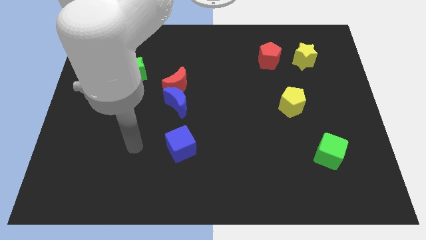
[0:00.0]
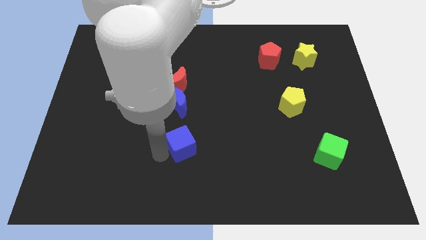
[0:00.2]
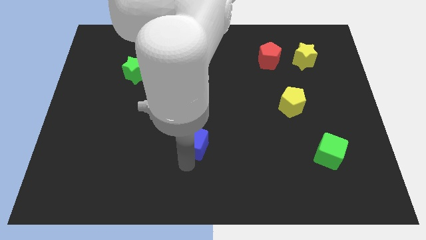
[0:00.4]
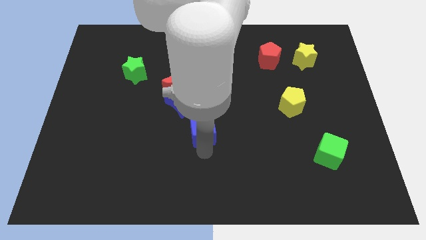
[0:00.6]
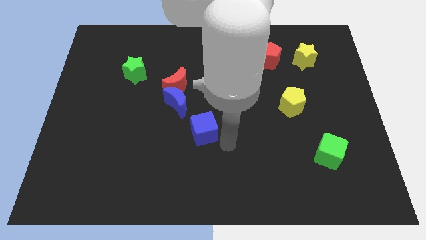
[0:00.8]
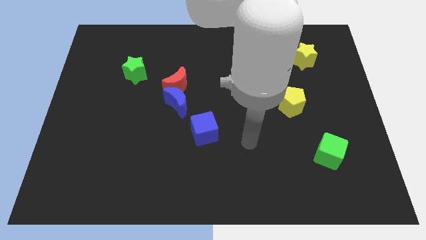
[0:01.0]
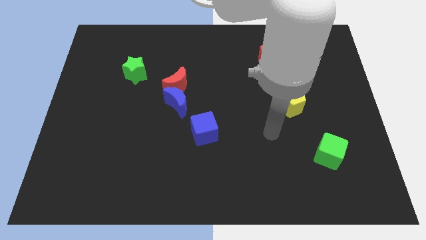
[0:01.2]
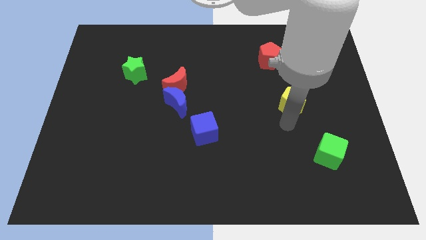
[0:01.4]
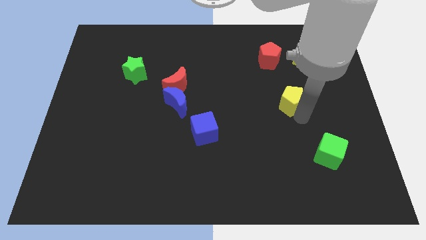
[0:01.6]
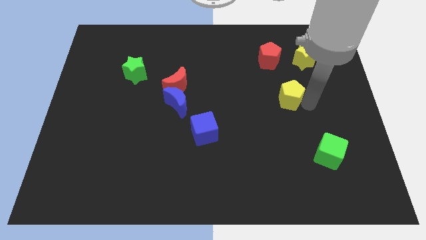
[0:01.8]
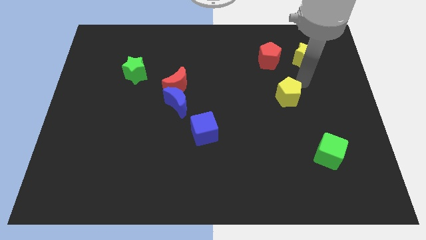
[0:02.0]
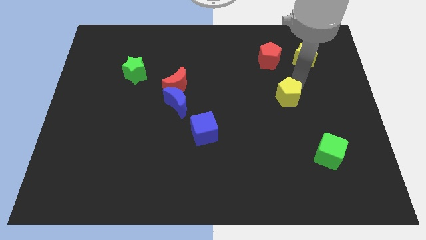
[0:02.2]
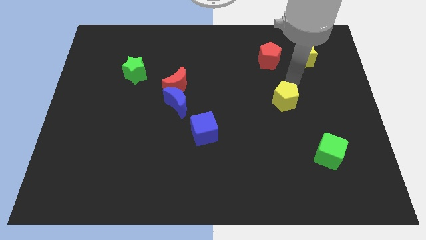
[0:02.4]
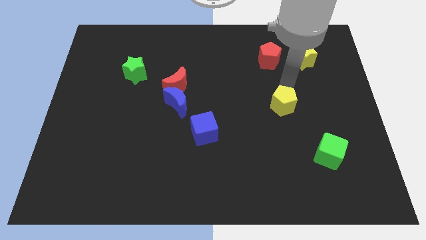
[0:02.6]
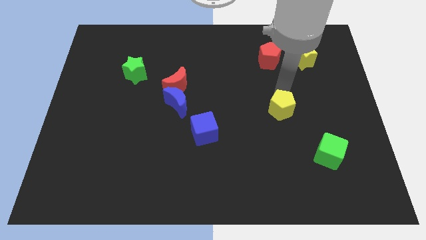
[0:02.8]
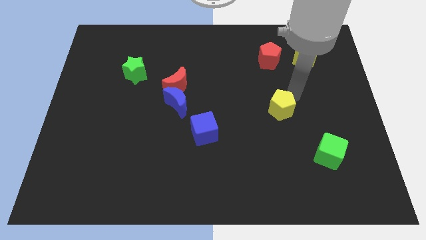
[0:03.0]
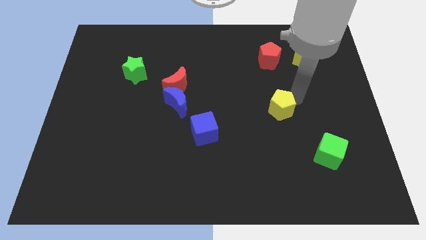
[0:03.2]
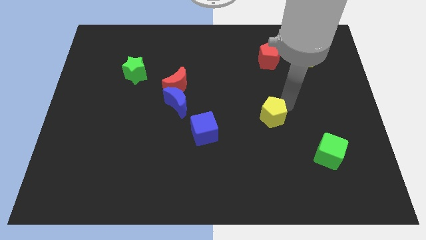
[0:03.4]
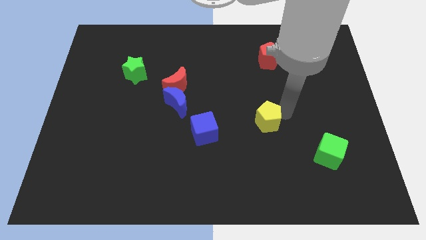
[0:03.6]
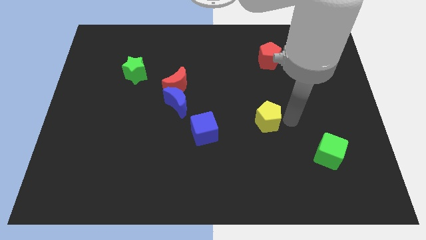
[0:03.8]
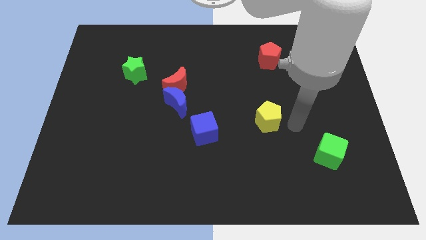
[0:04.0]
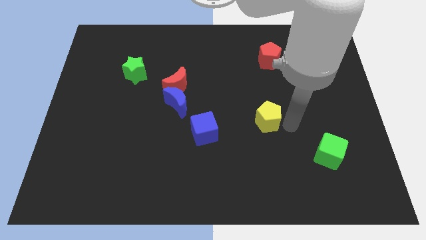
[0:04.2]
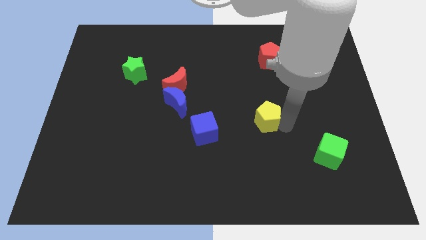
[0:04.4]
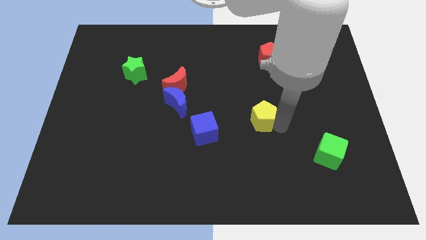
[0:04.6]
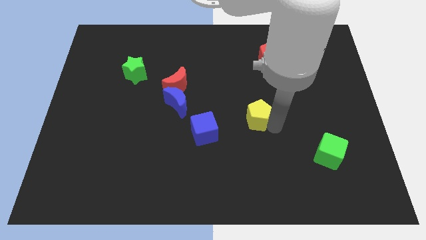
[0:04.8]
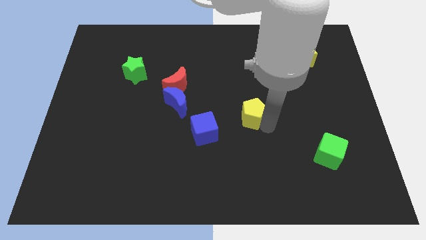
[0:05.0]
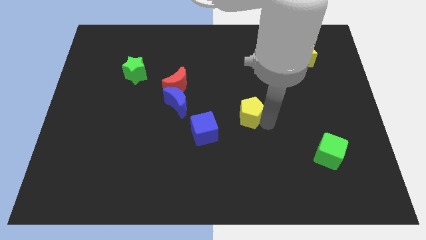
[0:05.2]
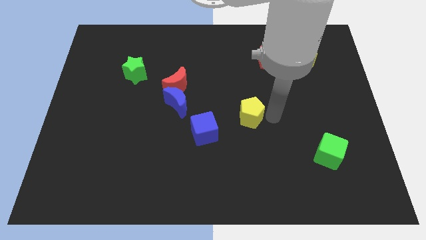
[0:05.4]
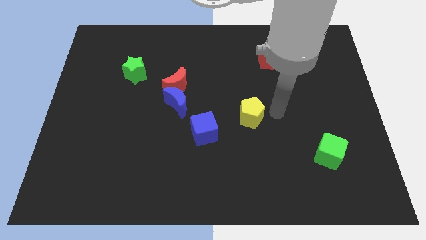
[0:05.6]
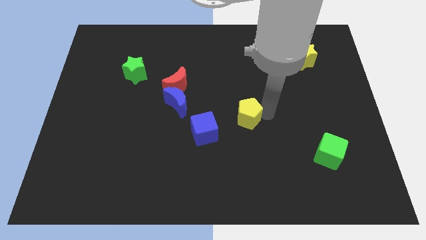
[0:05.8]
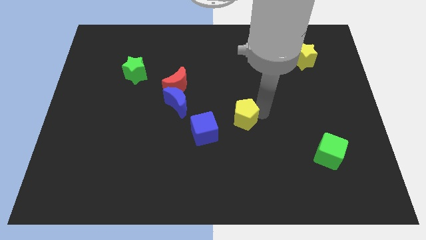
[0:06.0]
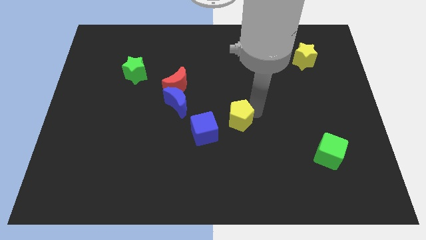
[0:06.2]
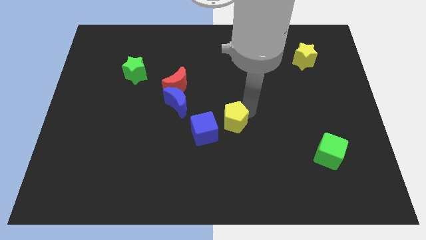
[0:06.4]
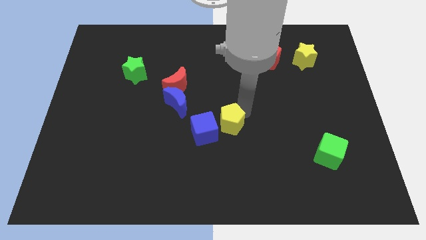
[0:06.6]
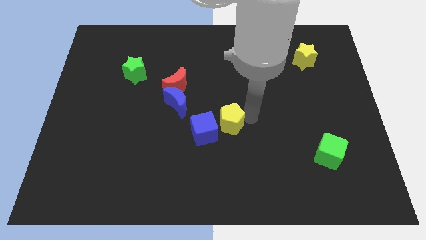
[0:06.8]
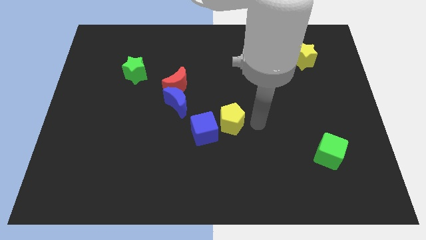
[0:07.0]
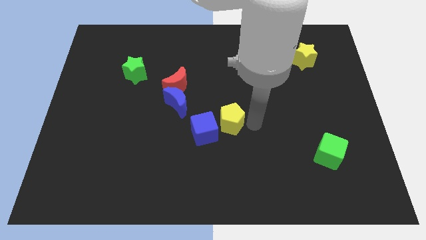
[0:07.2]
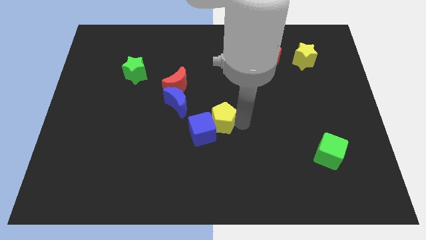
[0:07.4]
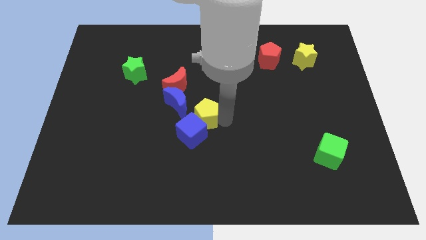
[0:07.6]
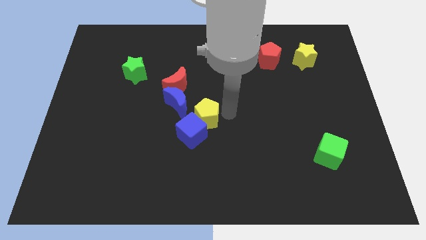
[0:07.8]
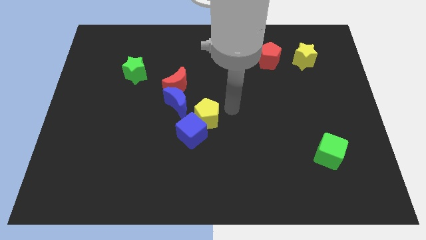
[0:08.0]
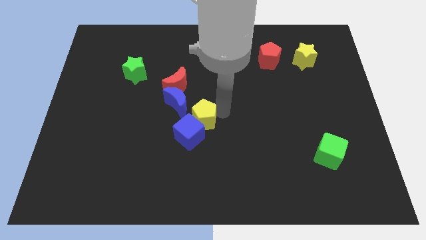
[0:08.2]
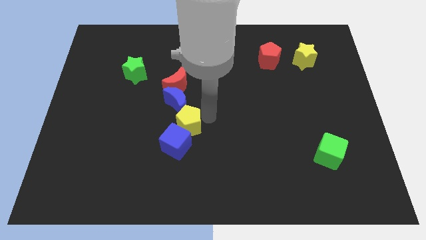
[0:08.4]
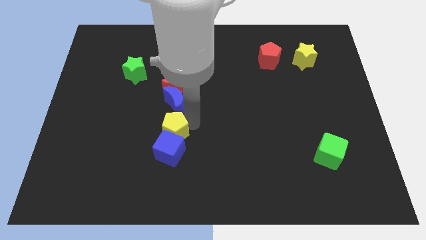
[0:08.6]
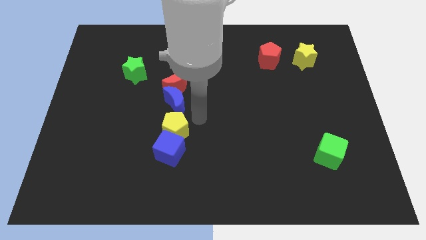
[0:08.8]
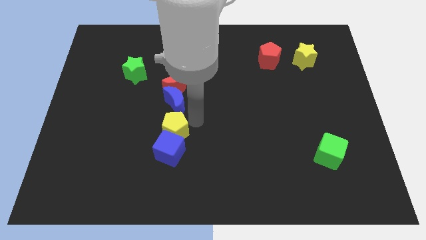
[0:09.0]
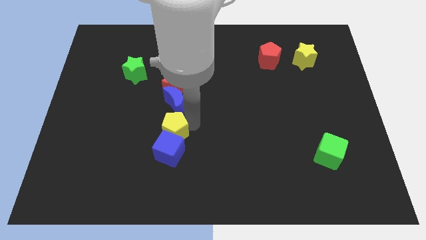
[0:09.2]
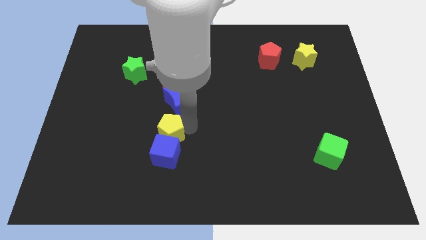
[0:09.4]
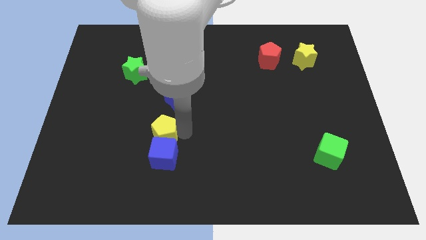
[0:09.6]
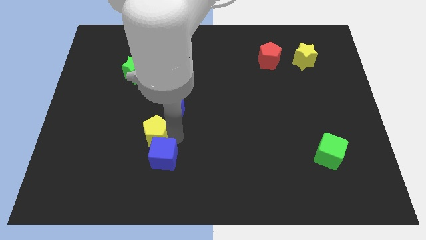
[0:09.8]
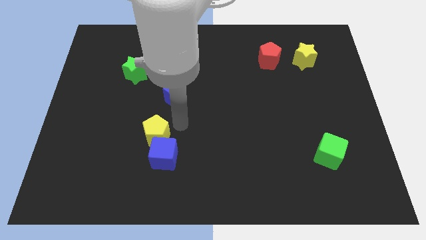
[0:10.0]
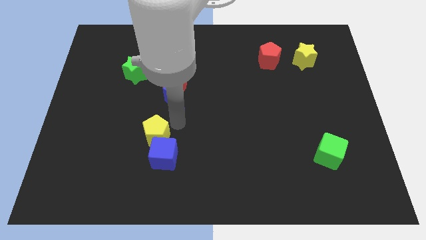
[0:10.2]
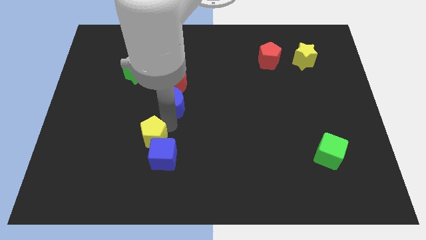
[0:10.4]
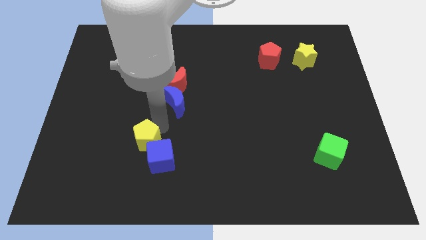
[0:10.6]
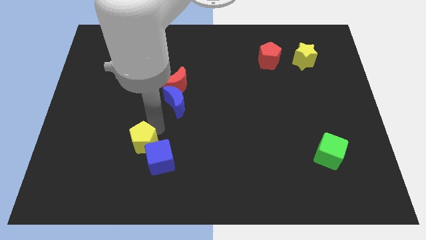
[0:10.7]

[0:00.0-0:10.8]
put the yellow pentagon to the left of the blue cube
